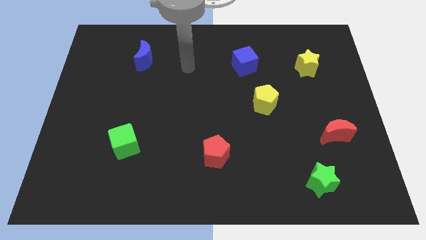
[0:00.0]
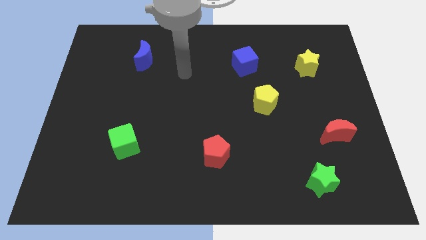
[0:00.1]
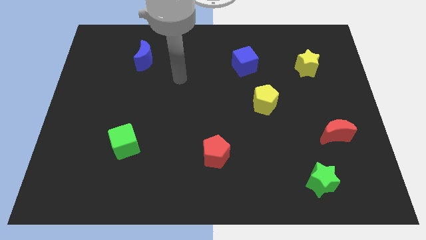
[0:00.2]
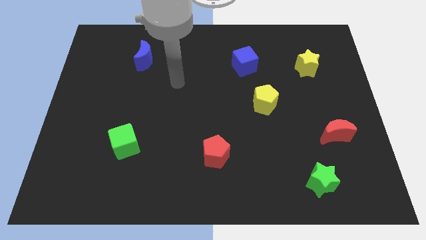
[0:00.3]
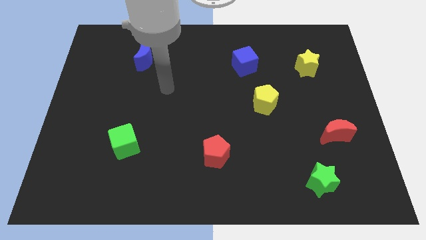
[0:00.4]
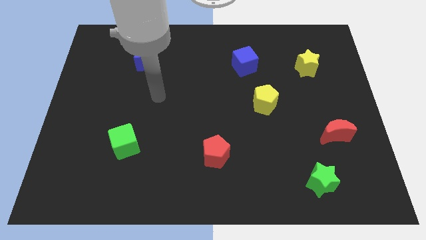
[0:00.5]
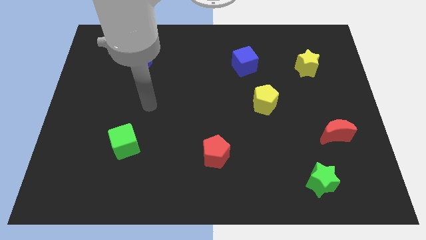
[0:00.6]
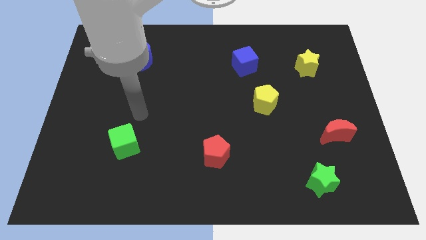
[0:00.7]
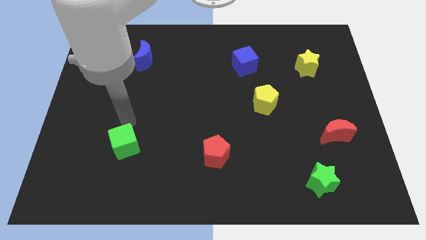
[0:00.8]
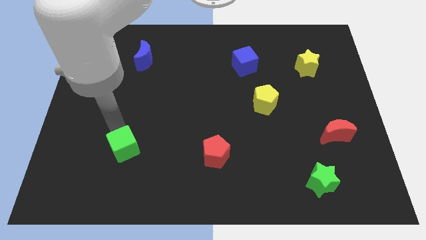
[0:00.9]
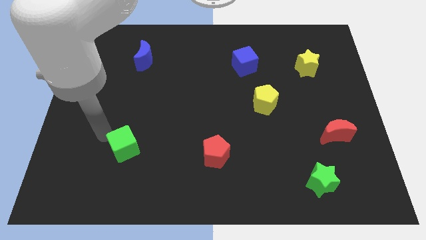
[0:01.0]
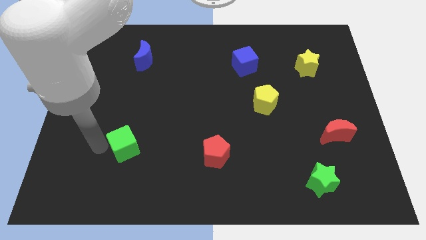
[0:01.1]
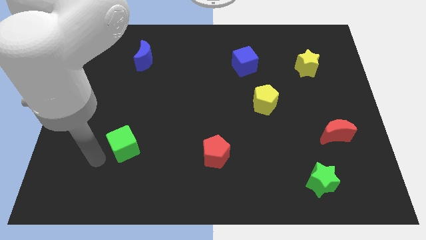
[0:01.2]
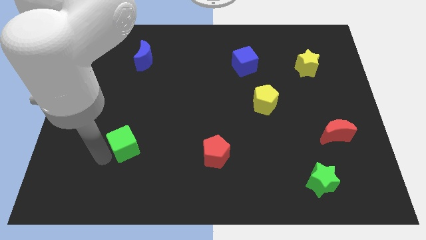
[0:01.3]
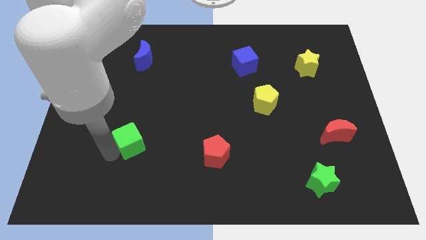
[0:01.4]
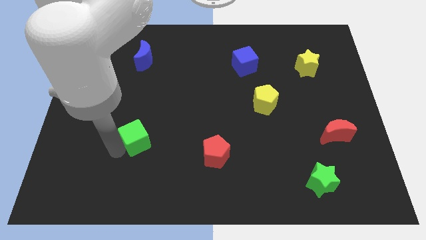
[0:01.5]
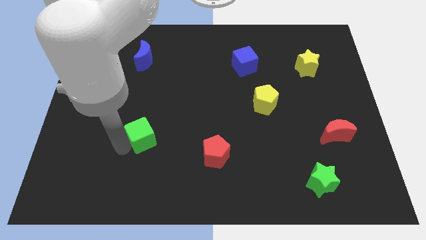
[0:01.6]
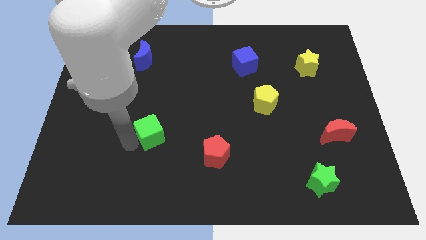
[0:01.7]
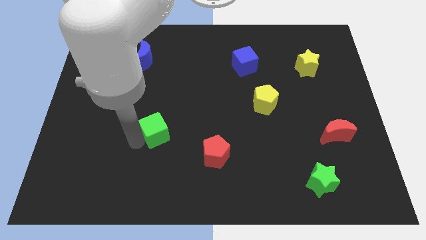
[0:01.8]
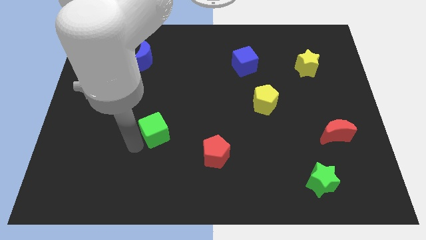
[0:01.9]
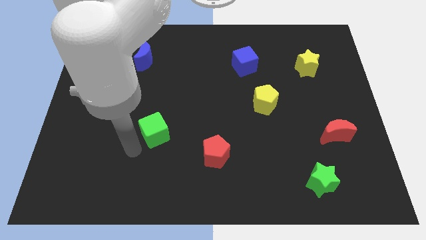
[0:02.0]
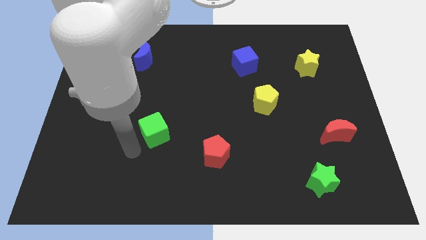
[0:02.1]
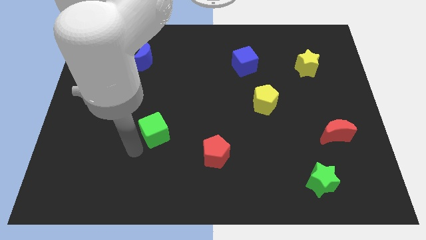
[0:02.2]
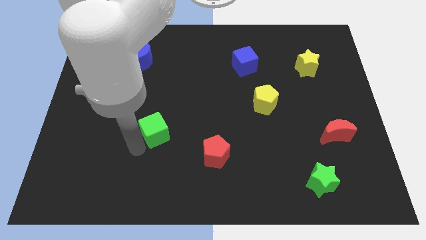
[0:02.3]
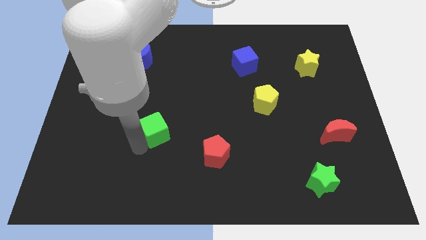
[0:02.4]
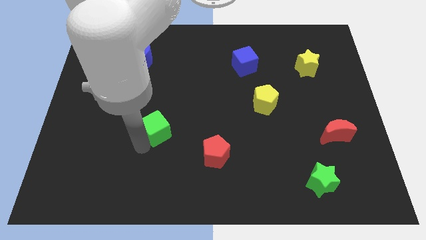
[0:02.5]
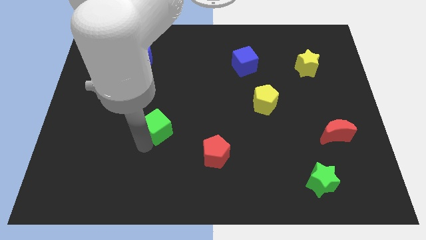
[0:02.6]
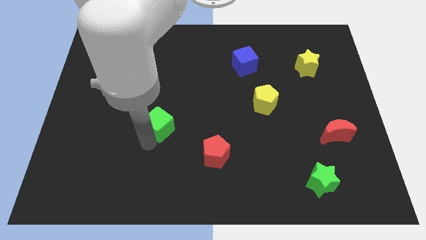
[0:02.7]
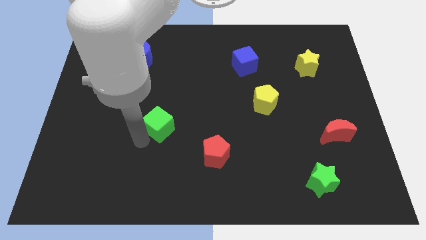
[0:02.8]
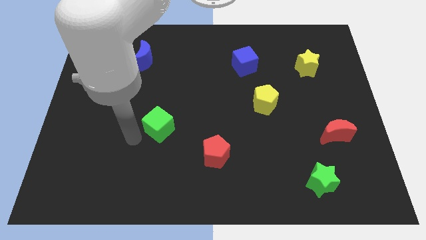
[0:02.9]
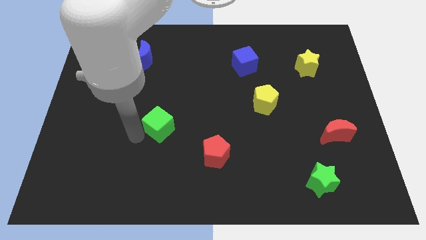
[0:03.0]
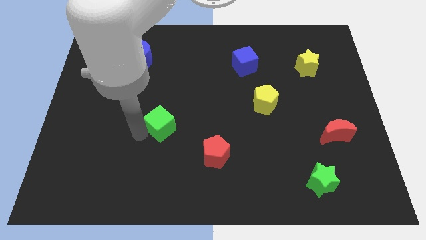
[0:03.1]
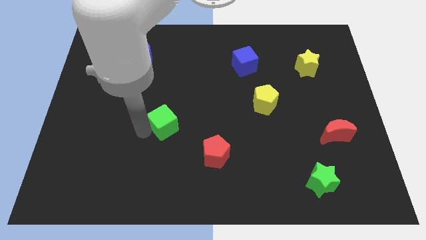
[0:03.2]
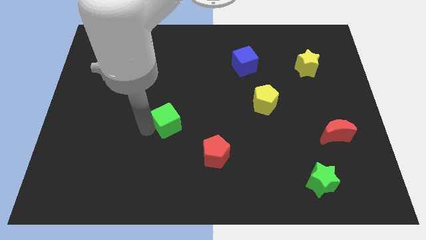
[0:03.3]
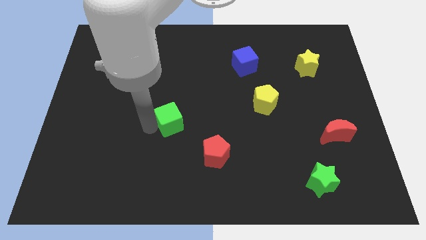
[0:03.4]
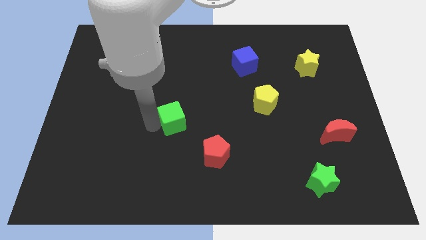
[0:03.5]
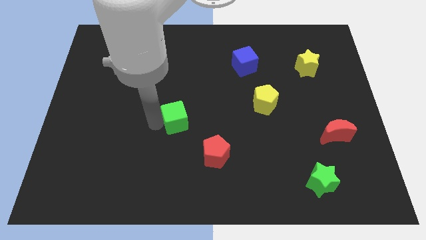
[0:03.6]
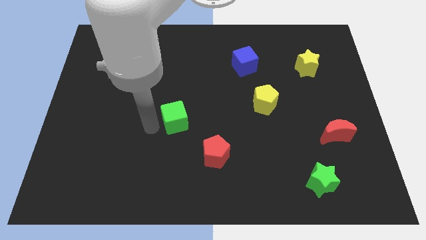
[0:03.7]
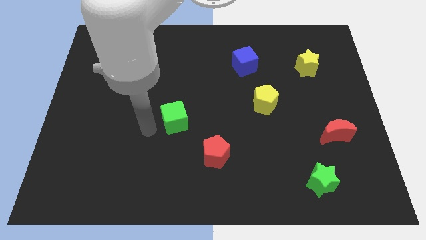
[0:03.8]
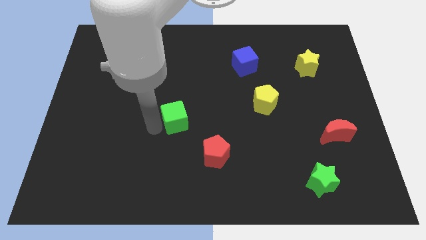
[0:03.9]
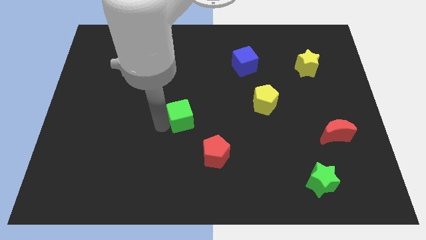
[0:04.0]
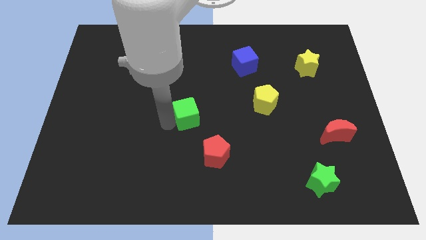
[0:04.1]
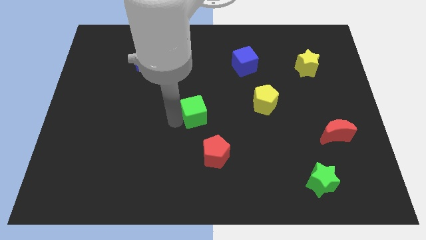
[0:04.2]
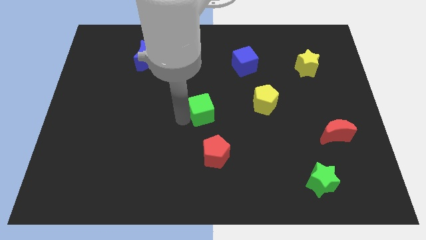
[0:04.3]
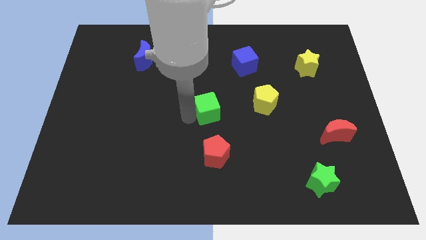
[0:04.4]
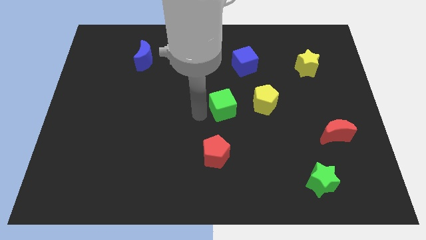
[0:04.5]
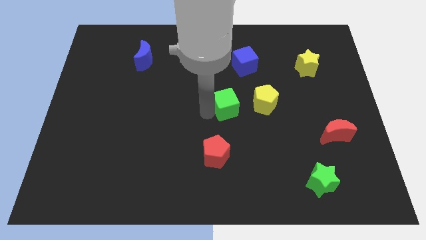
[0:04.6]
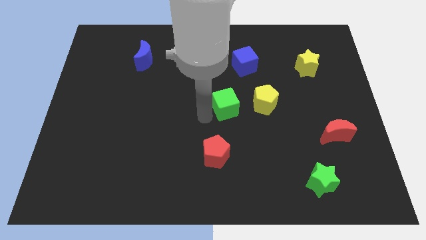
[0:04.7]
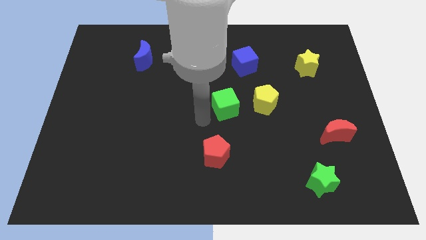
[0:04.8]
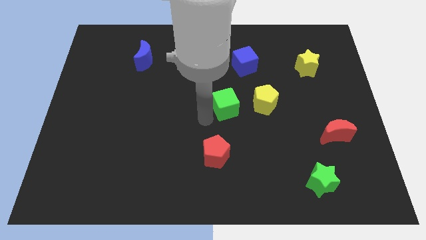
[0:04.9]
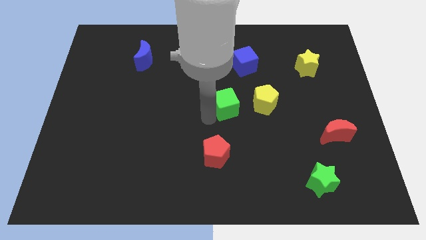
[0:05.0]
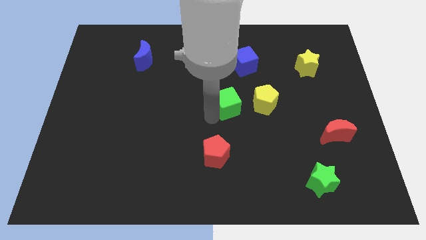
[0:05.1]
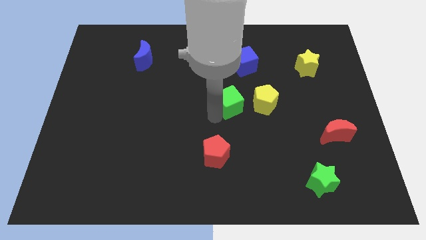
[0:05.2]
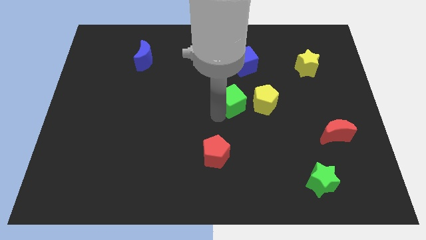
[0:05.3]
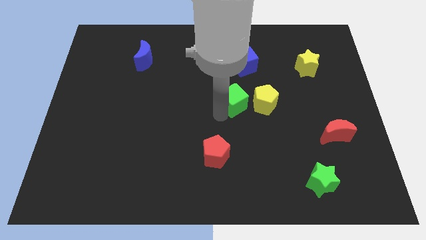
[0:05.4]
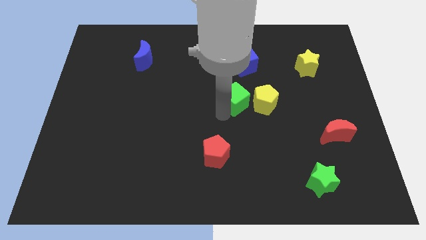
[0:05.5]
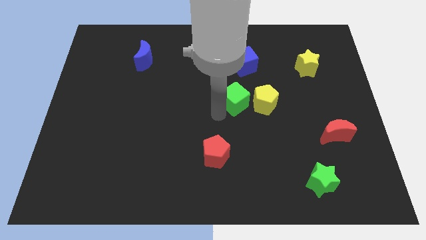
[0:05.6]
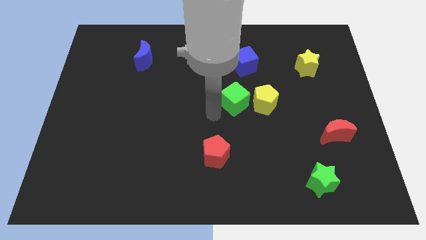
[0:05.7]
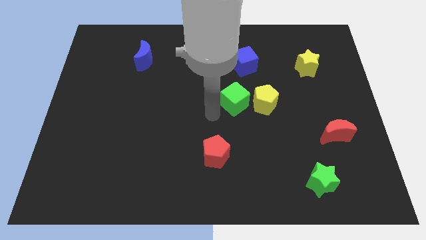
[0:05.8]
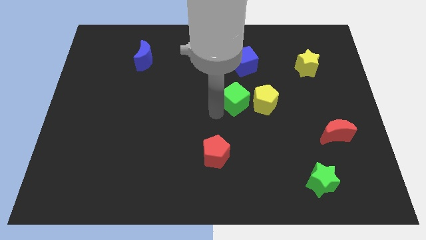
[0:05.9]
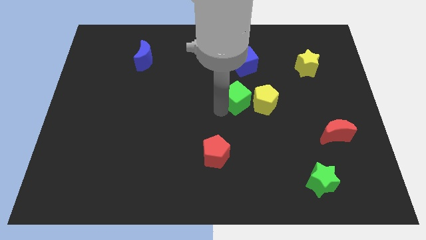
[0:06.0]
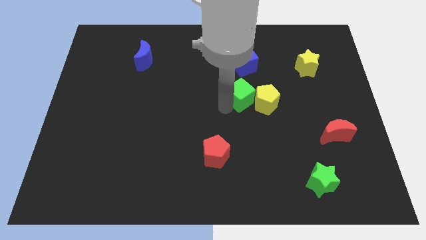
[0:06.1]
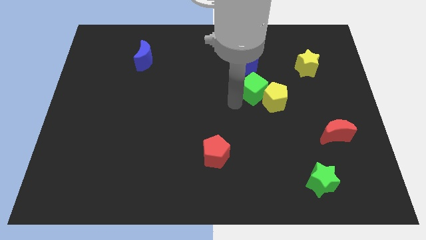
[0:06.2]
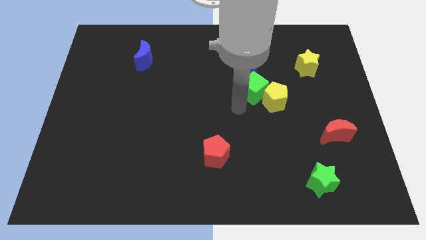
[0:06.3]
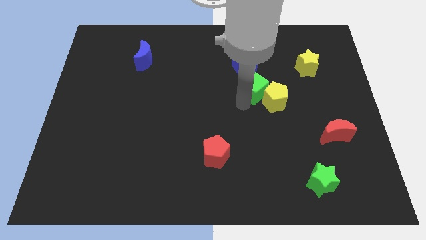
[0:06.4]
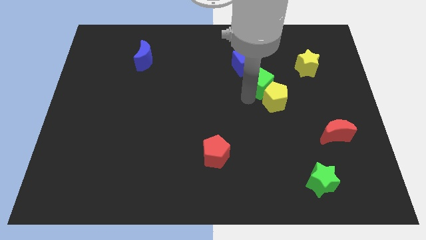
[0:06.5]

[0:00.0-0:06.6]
slide the green cube to the top of the yellow pentagon
